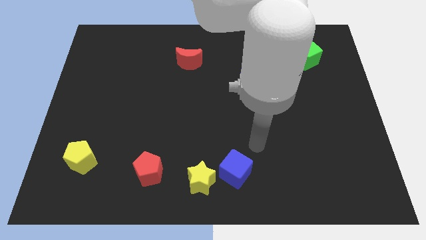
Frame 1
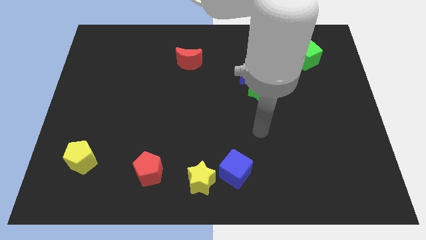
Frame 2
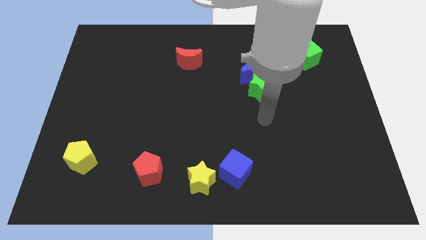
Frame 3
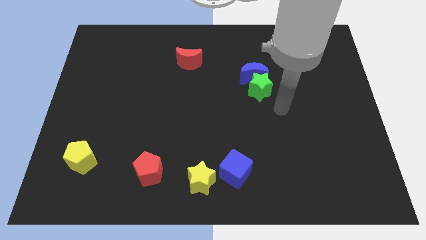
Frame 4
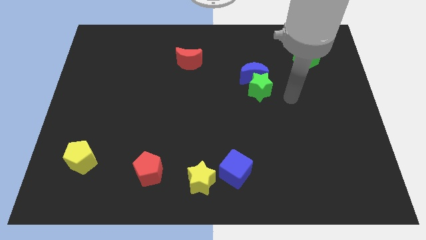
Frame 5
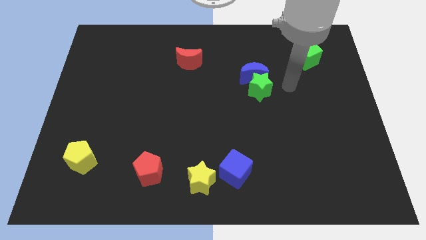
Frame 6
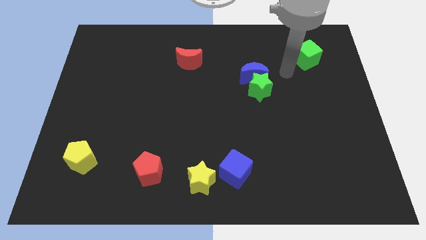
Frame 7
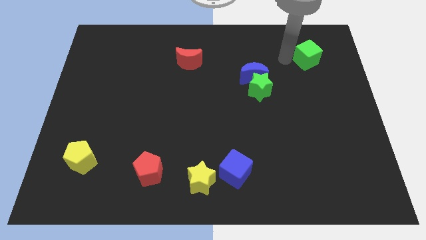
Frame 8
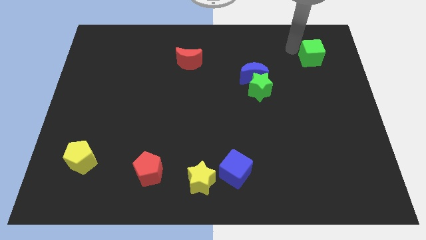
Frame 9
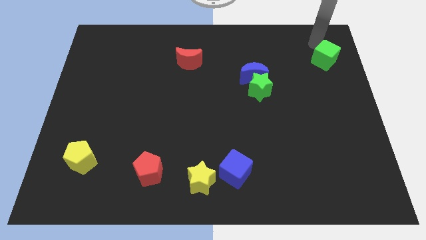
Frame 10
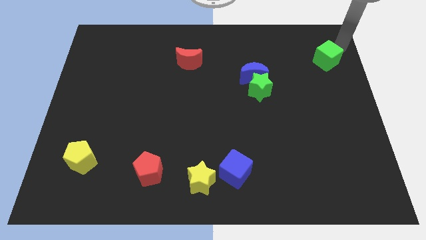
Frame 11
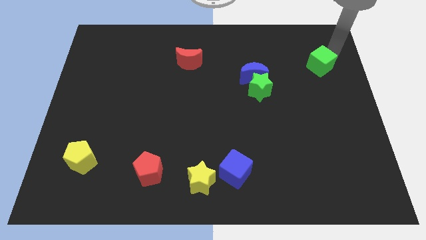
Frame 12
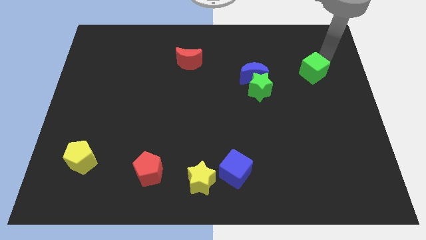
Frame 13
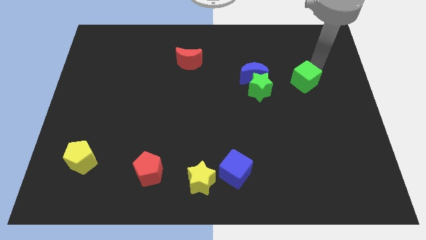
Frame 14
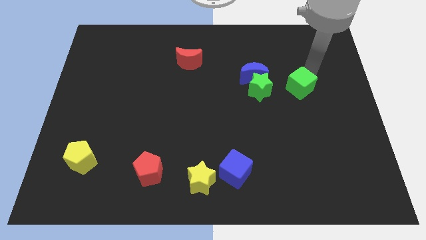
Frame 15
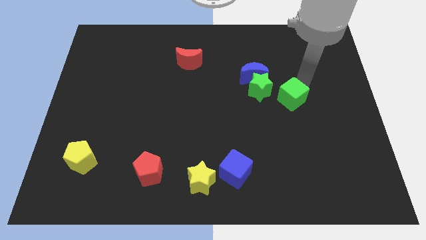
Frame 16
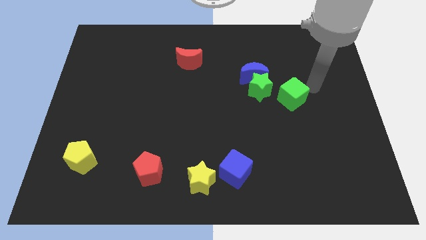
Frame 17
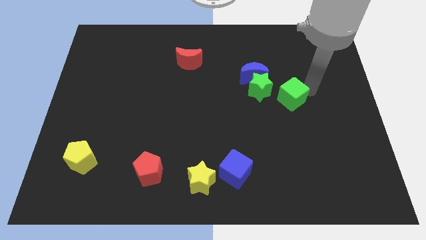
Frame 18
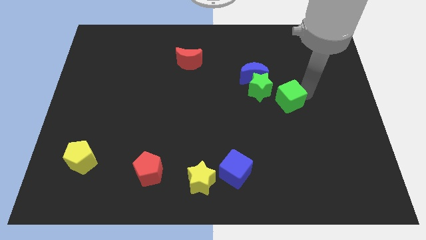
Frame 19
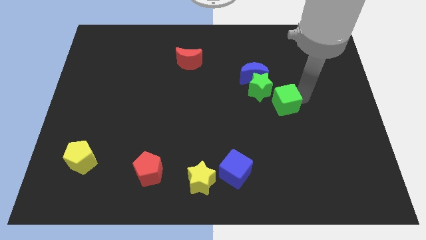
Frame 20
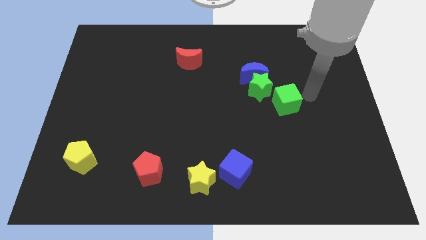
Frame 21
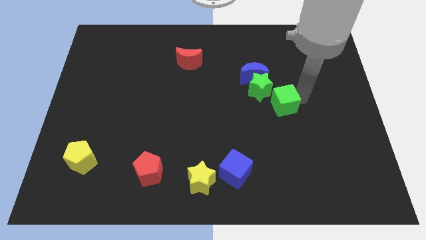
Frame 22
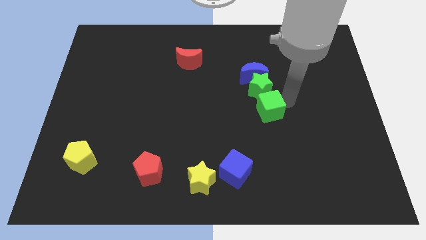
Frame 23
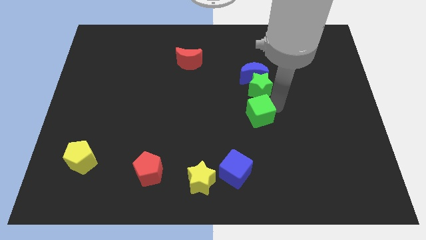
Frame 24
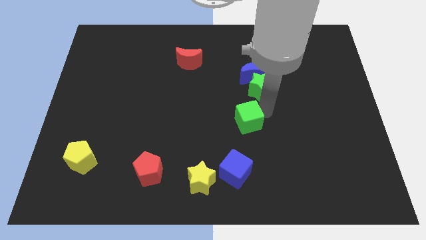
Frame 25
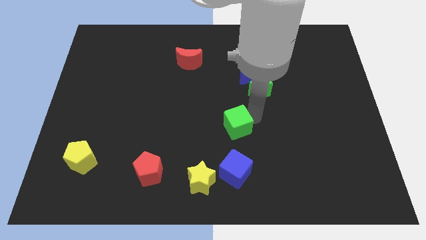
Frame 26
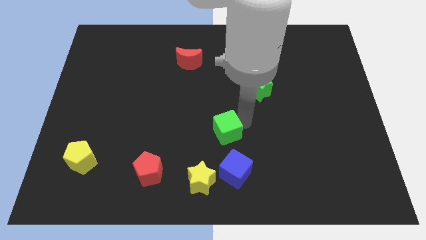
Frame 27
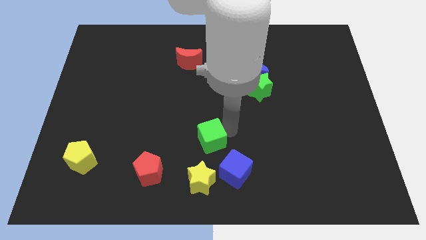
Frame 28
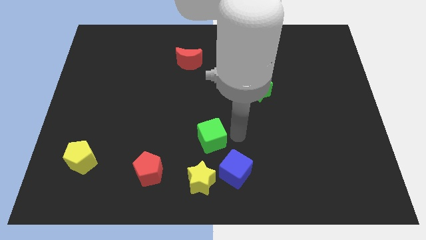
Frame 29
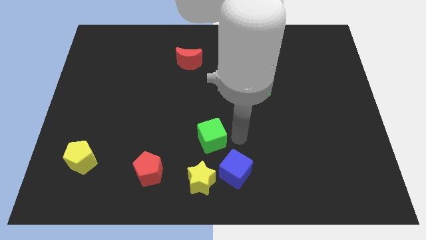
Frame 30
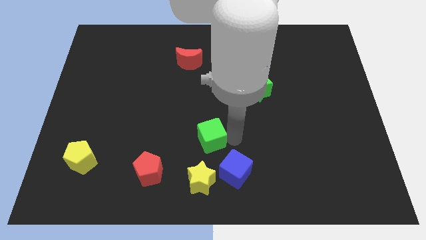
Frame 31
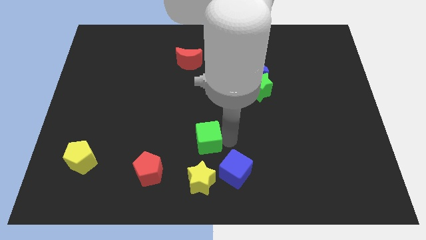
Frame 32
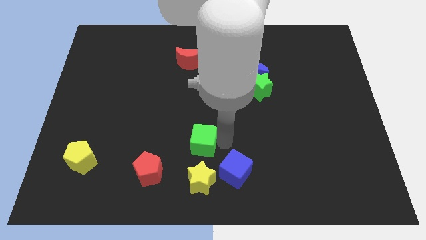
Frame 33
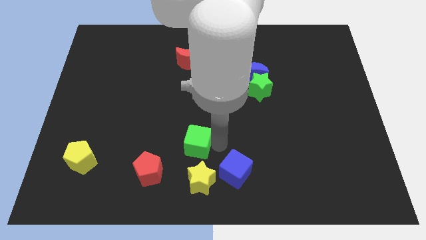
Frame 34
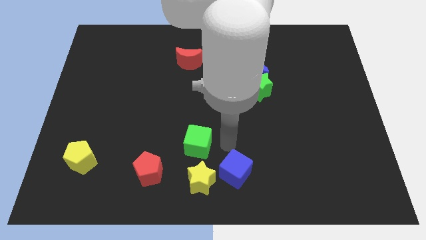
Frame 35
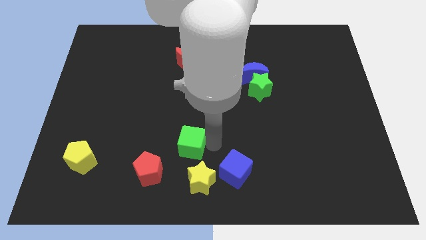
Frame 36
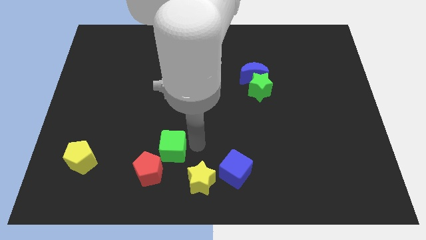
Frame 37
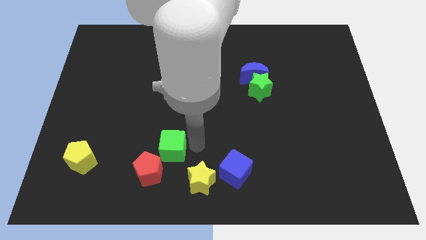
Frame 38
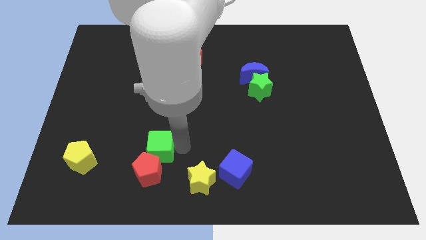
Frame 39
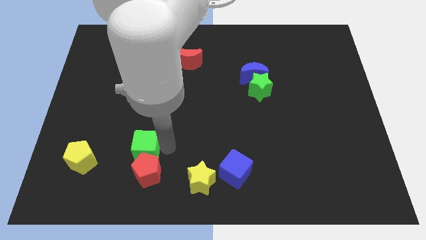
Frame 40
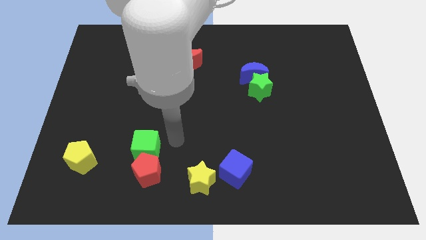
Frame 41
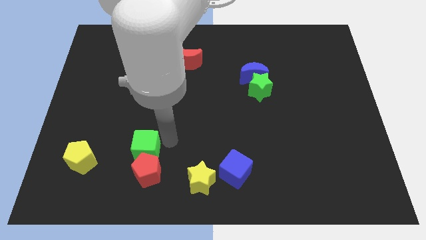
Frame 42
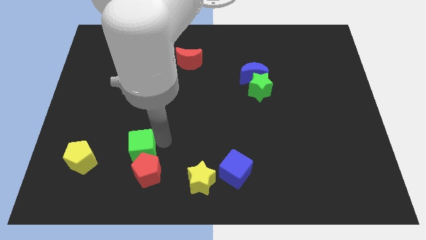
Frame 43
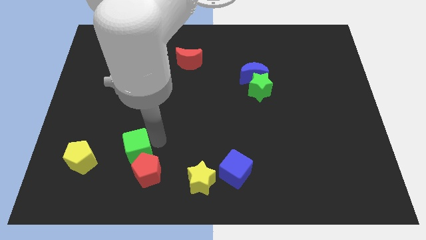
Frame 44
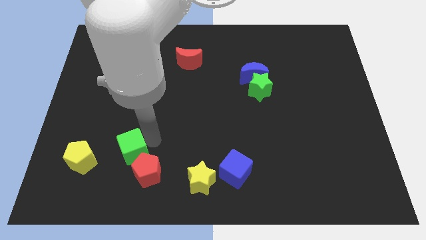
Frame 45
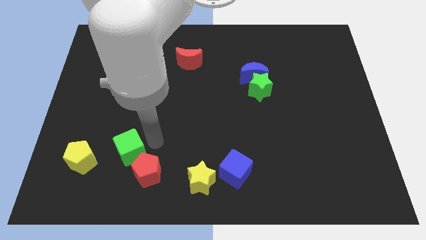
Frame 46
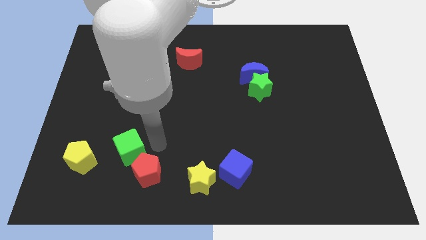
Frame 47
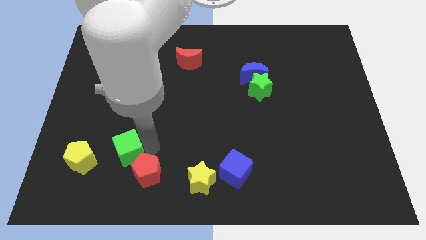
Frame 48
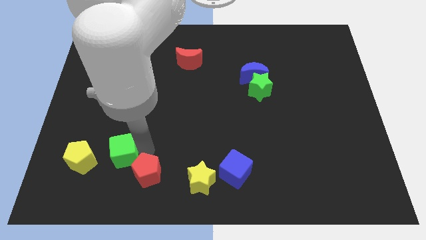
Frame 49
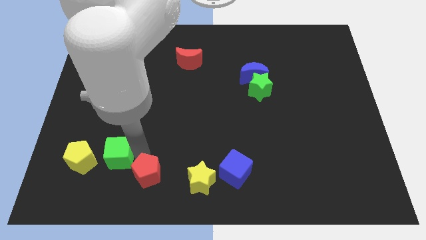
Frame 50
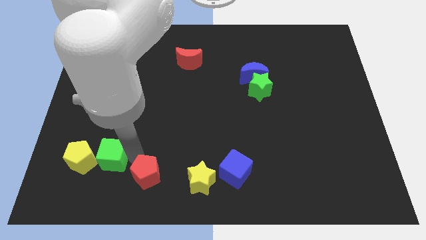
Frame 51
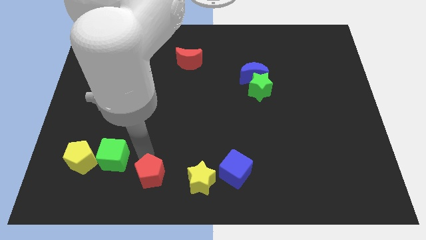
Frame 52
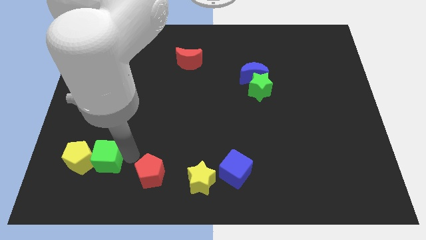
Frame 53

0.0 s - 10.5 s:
put the green cube towards the yellow pentagon

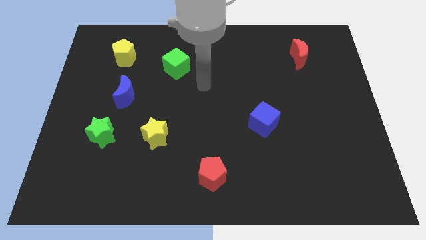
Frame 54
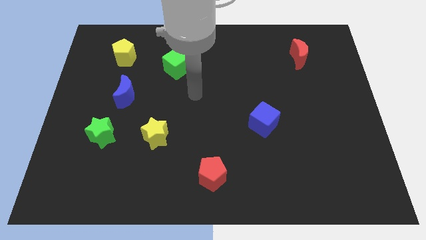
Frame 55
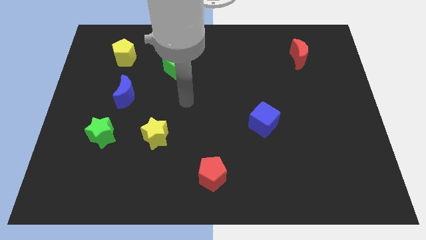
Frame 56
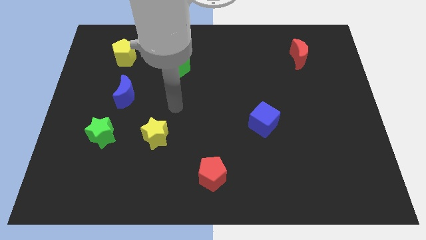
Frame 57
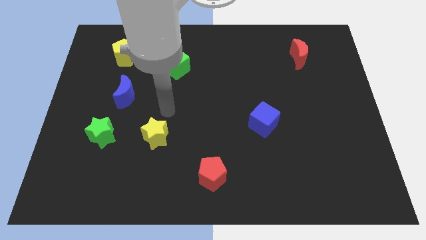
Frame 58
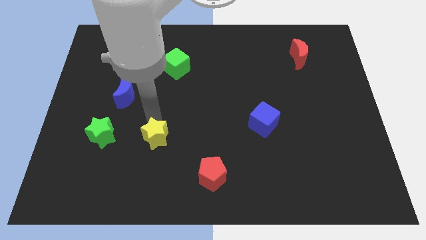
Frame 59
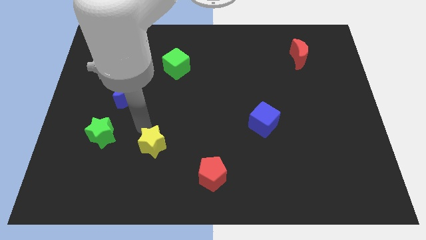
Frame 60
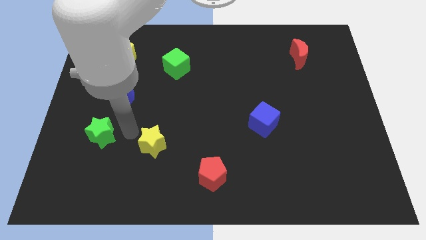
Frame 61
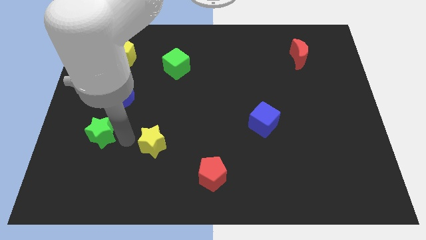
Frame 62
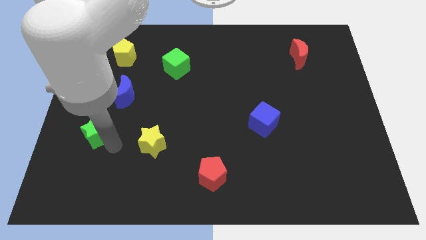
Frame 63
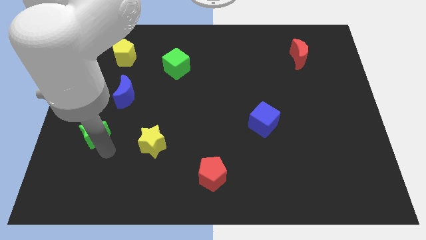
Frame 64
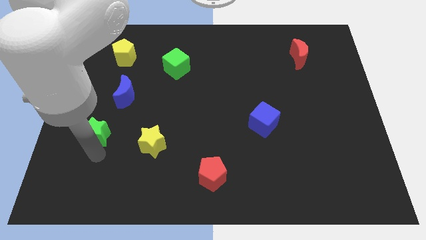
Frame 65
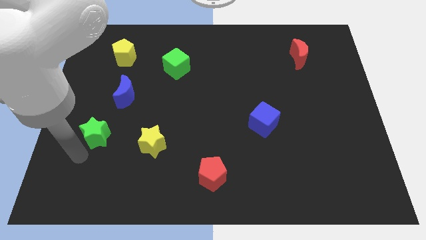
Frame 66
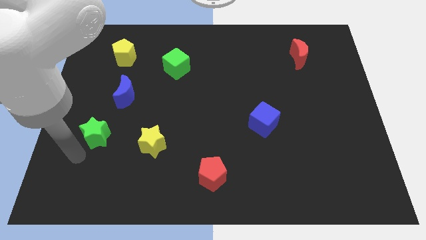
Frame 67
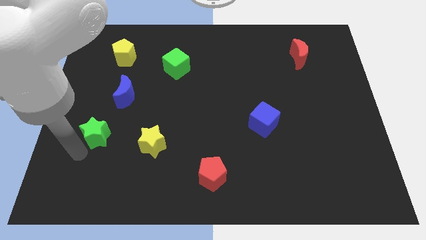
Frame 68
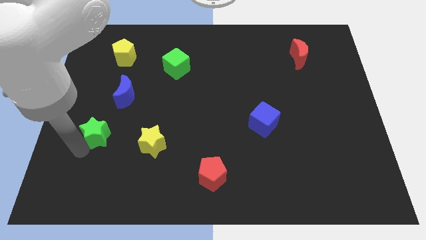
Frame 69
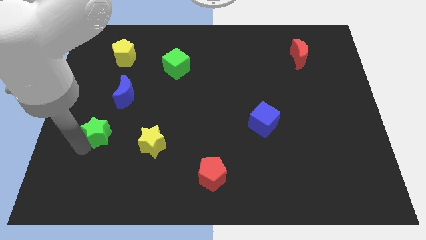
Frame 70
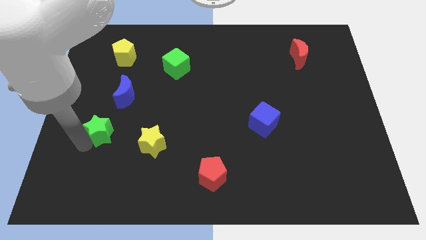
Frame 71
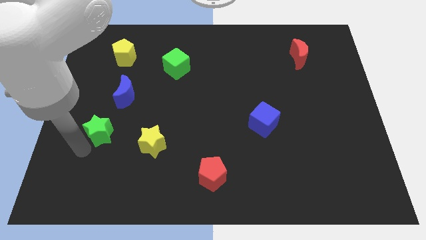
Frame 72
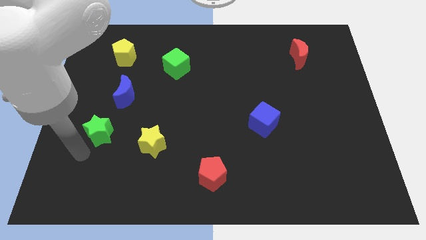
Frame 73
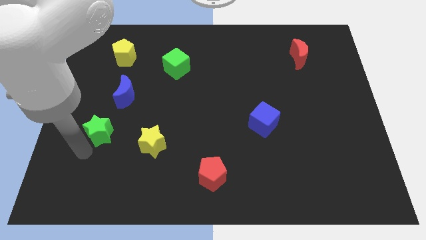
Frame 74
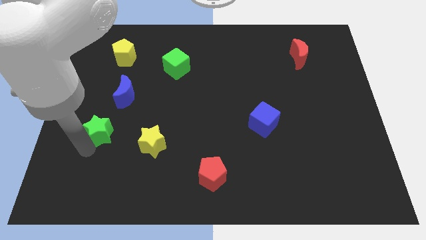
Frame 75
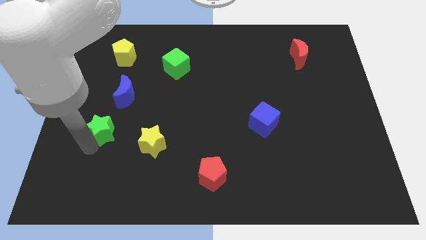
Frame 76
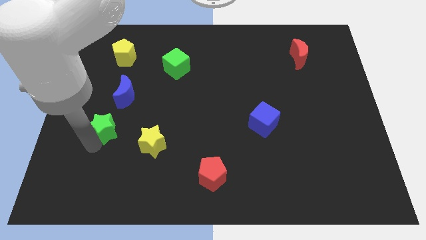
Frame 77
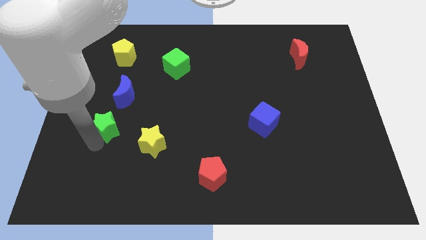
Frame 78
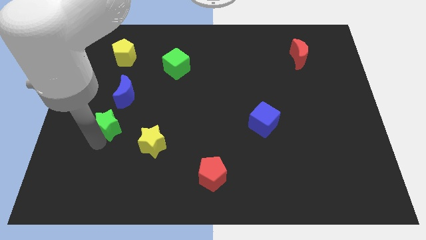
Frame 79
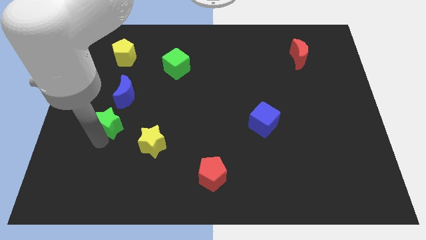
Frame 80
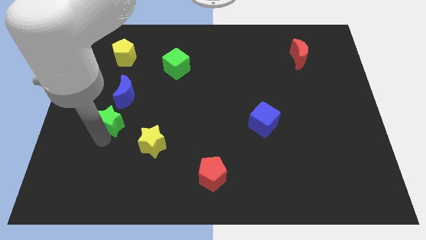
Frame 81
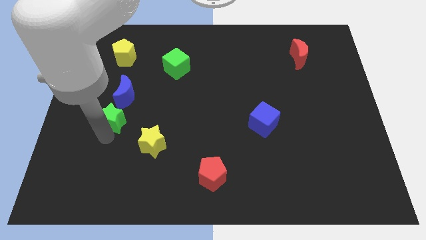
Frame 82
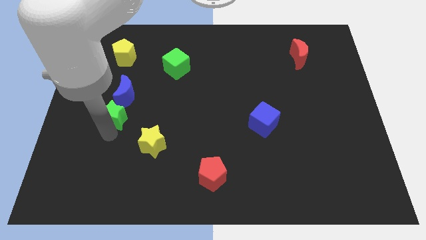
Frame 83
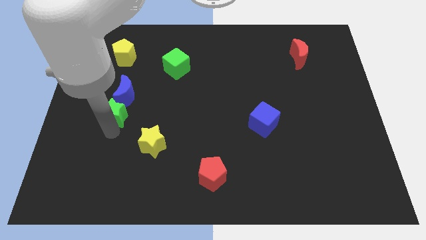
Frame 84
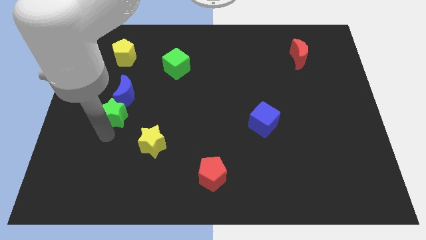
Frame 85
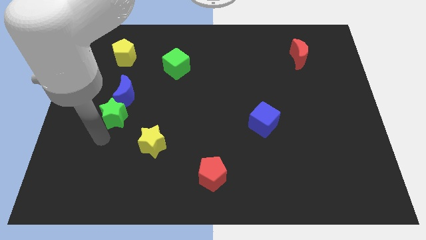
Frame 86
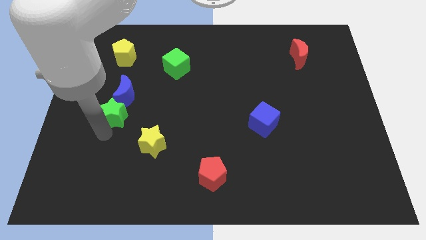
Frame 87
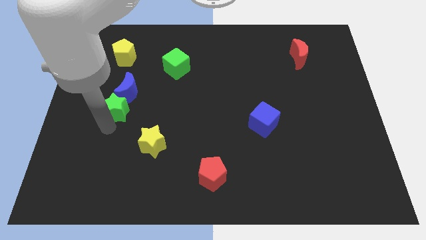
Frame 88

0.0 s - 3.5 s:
slide the green star next to the blue moon
